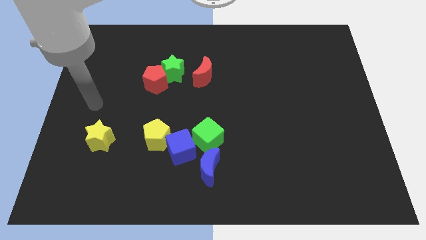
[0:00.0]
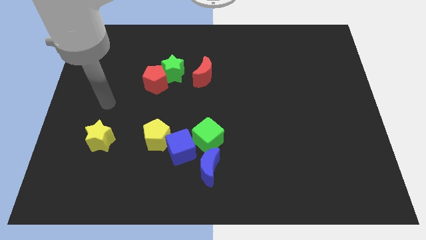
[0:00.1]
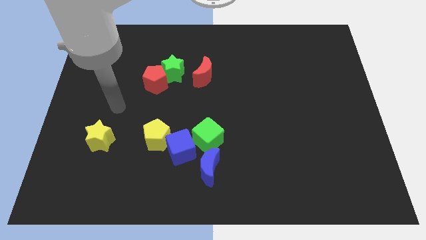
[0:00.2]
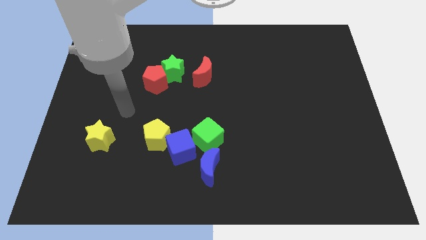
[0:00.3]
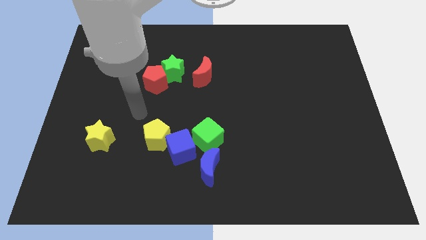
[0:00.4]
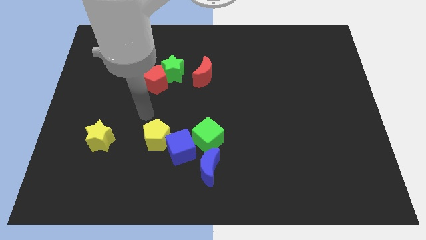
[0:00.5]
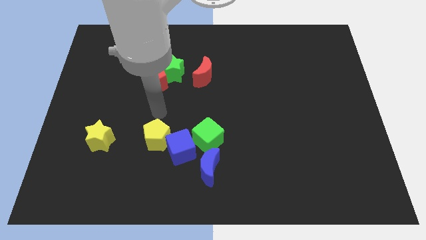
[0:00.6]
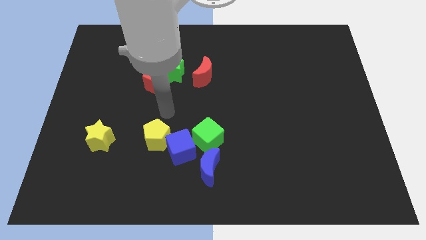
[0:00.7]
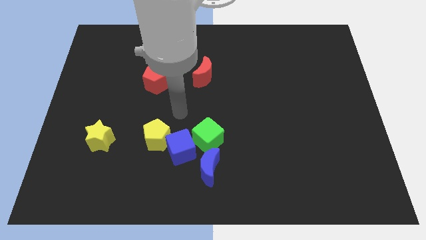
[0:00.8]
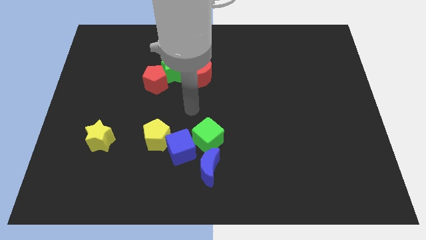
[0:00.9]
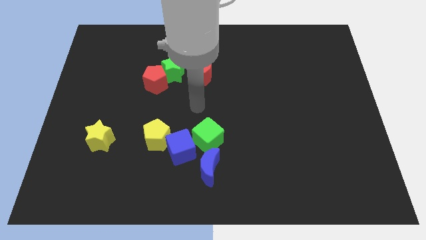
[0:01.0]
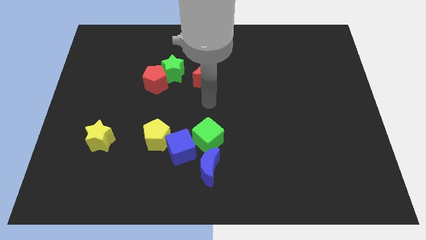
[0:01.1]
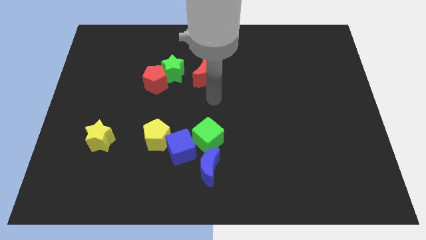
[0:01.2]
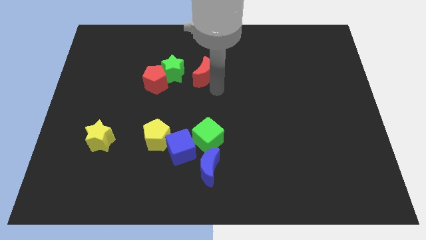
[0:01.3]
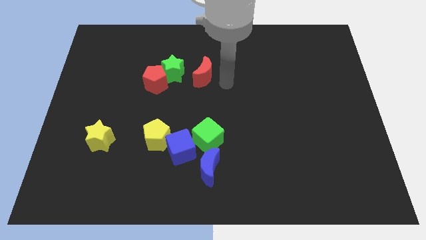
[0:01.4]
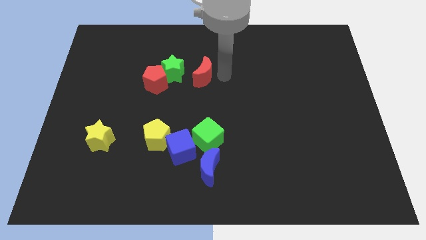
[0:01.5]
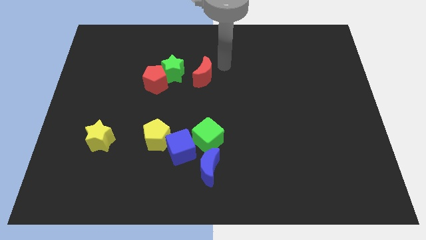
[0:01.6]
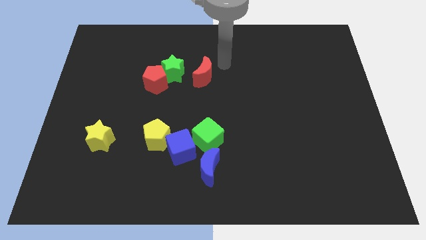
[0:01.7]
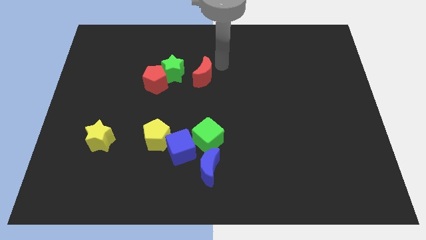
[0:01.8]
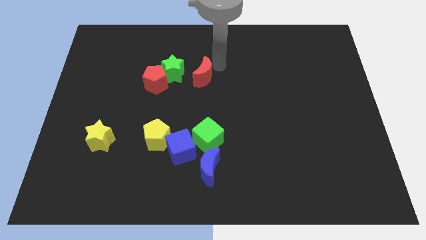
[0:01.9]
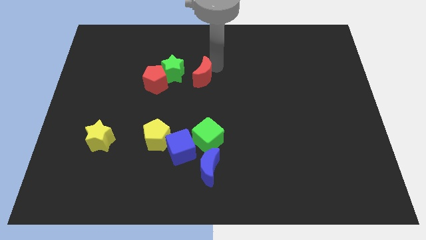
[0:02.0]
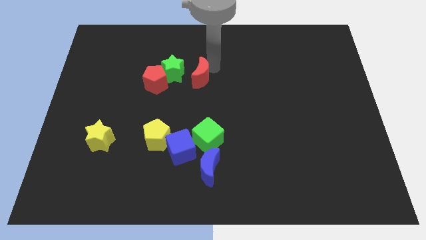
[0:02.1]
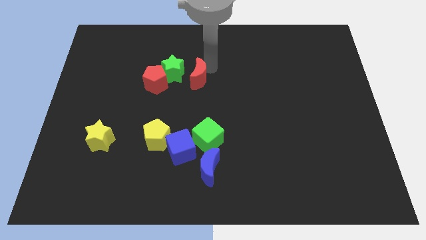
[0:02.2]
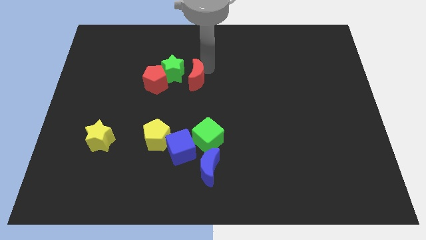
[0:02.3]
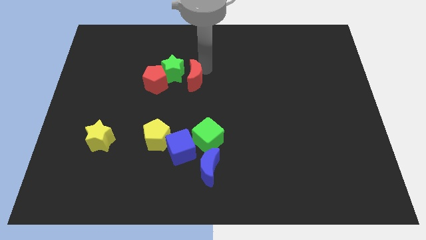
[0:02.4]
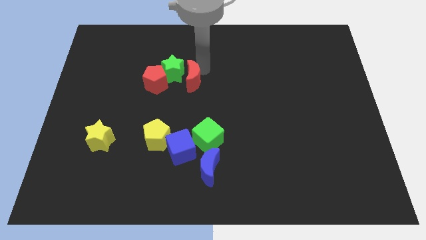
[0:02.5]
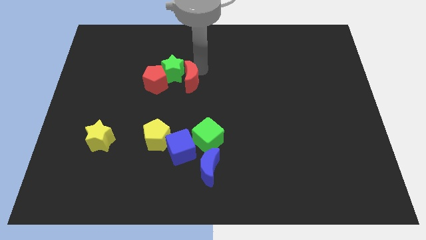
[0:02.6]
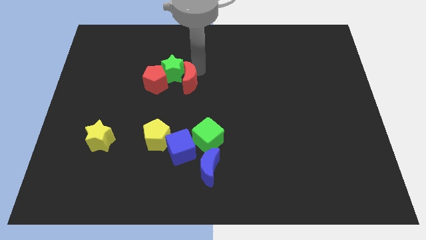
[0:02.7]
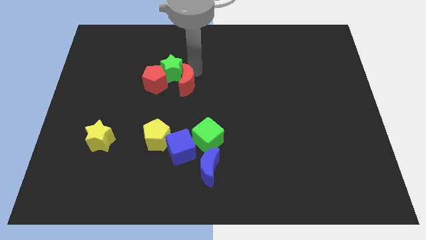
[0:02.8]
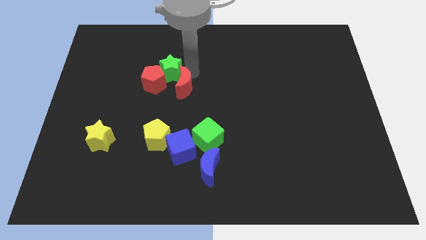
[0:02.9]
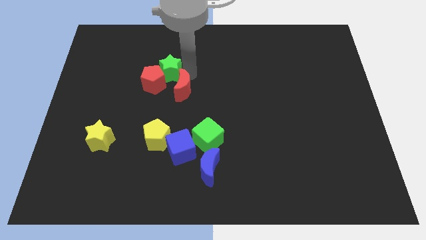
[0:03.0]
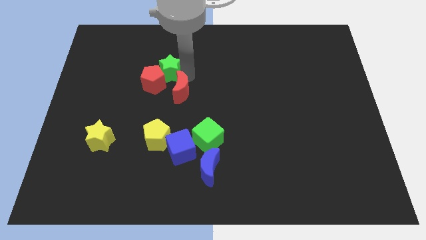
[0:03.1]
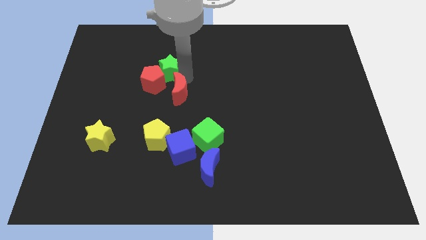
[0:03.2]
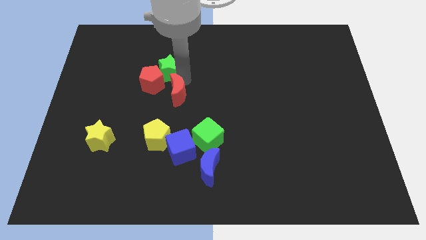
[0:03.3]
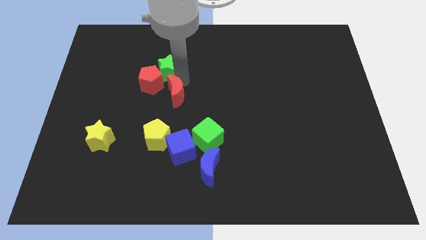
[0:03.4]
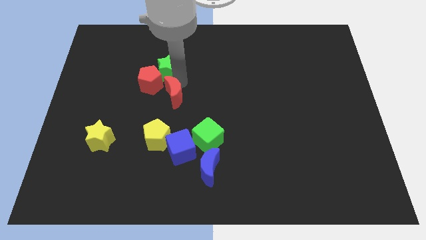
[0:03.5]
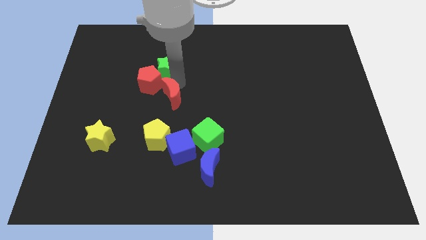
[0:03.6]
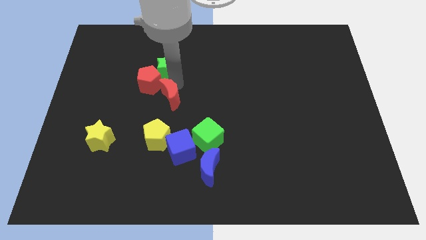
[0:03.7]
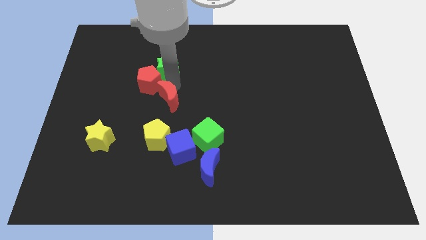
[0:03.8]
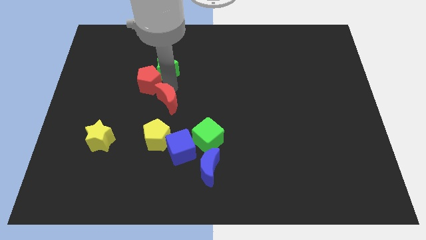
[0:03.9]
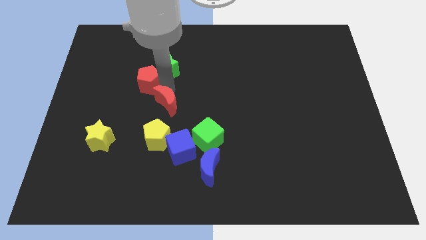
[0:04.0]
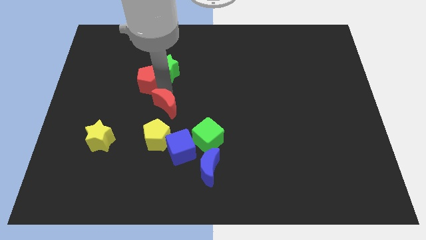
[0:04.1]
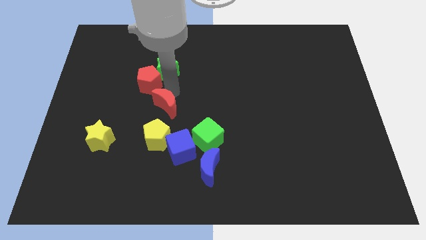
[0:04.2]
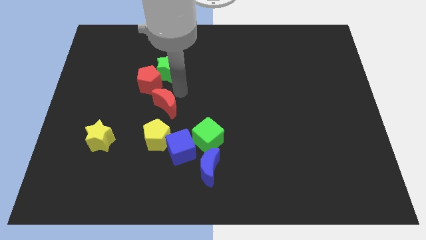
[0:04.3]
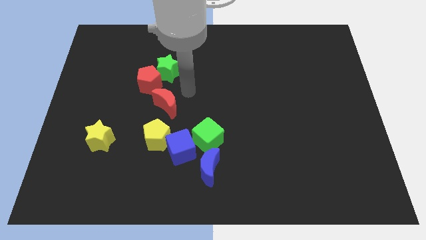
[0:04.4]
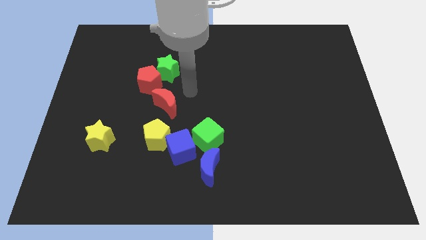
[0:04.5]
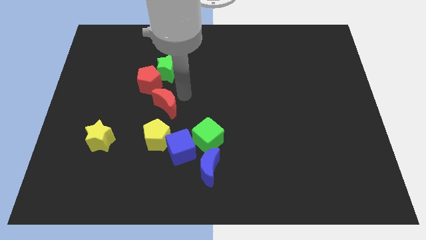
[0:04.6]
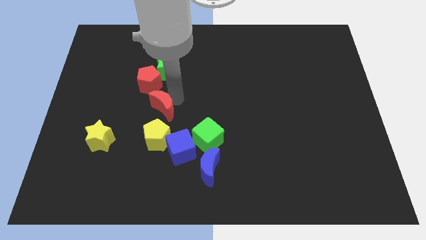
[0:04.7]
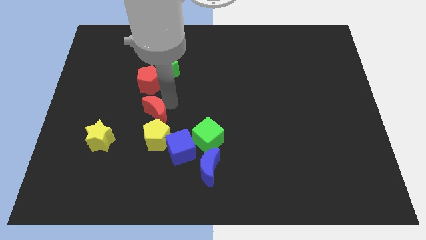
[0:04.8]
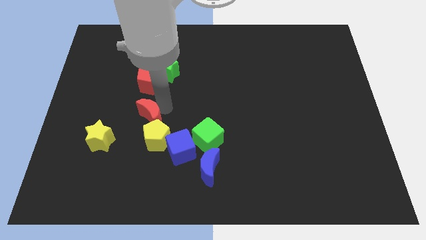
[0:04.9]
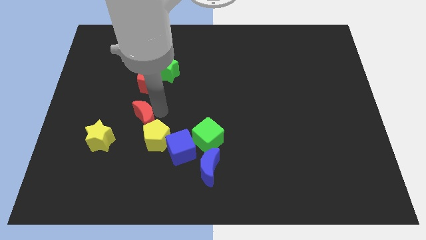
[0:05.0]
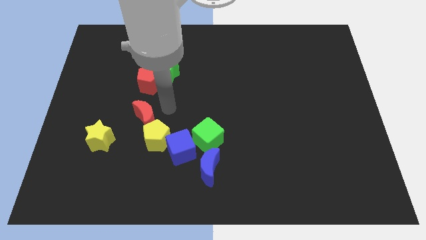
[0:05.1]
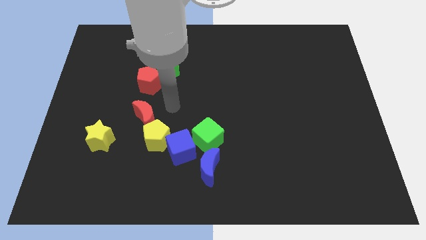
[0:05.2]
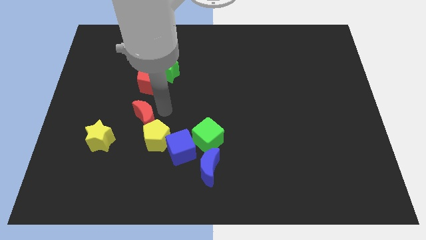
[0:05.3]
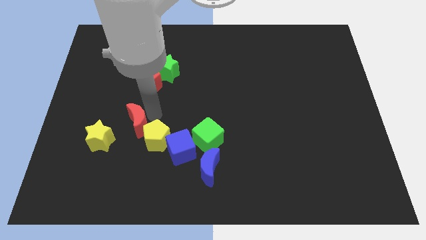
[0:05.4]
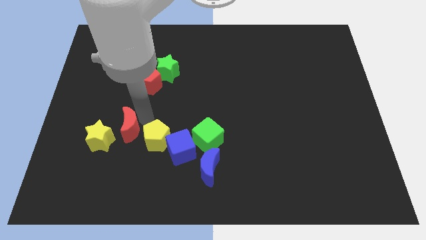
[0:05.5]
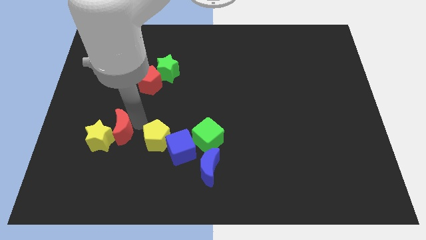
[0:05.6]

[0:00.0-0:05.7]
put the red moon towards the yellow star

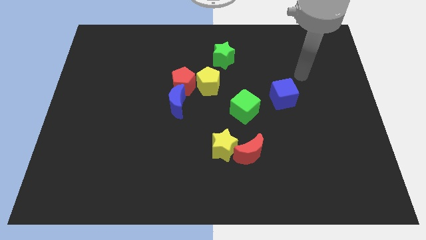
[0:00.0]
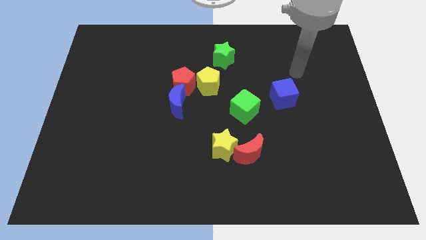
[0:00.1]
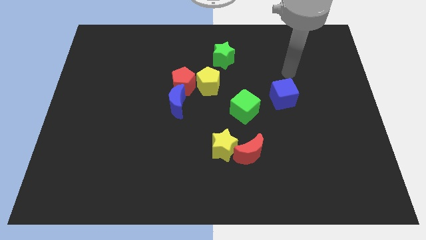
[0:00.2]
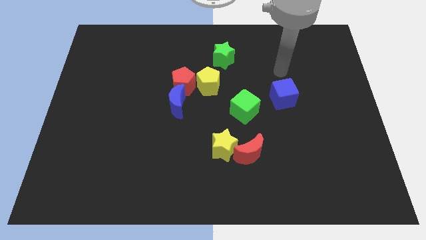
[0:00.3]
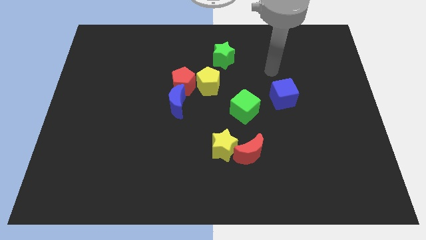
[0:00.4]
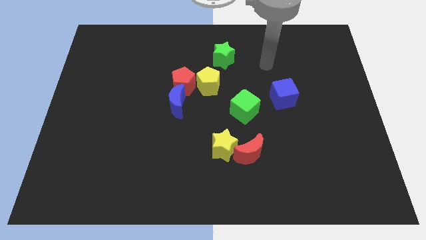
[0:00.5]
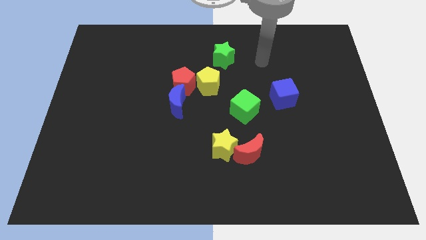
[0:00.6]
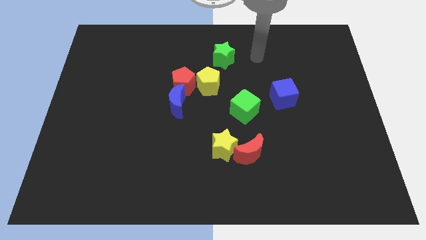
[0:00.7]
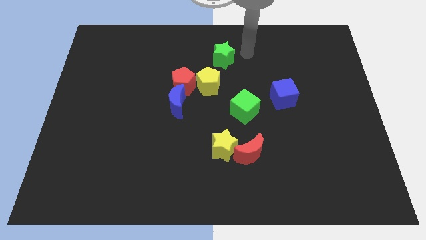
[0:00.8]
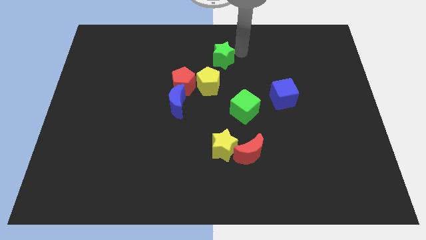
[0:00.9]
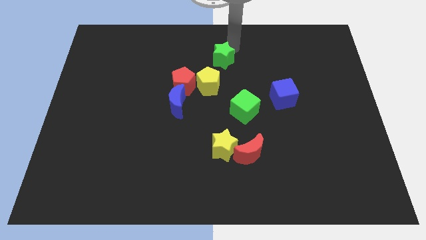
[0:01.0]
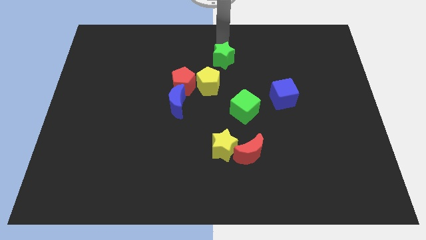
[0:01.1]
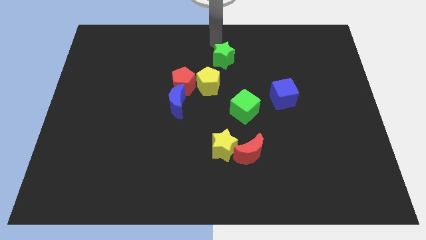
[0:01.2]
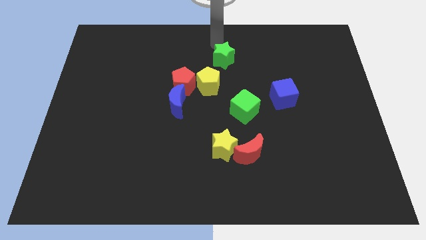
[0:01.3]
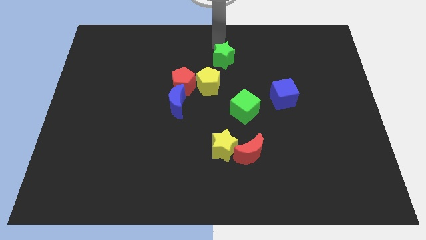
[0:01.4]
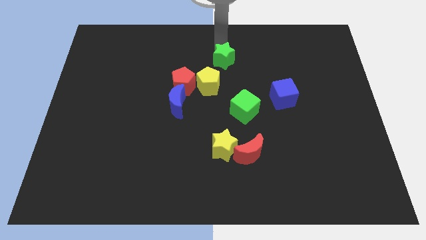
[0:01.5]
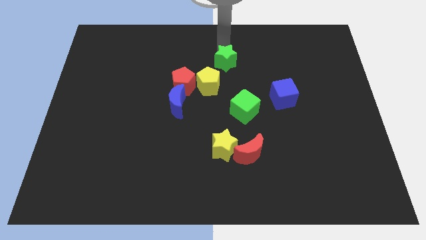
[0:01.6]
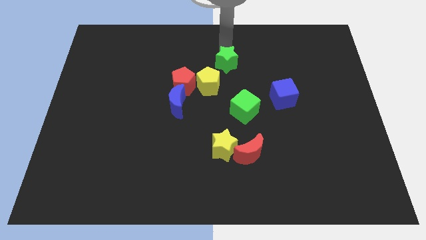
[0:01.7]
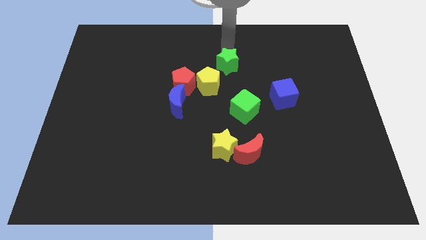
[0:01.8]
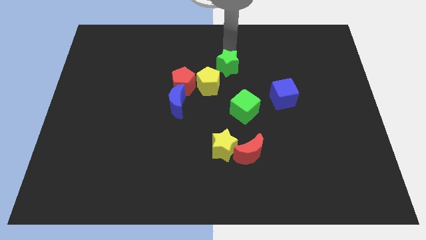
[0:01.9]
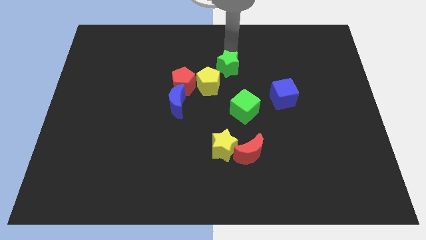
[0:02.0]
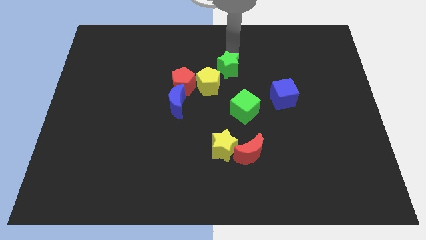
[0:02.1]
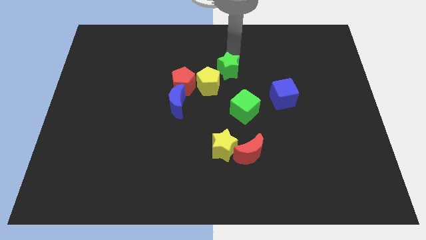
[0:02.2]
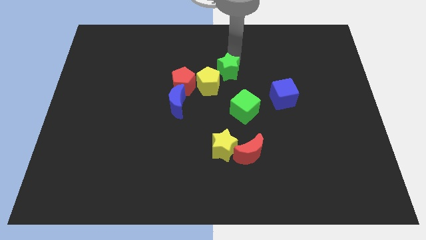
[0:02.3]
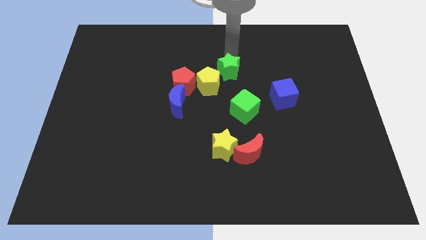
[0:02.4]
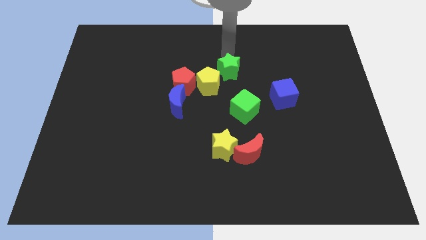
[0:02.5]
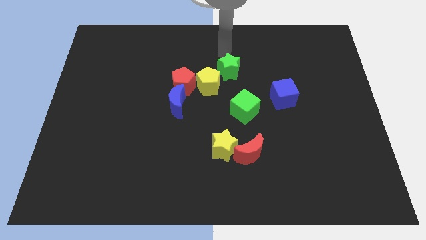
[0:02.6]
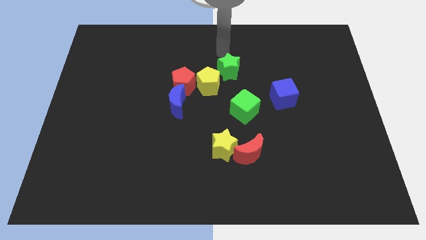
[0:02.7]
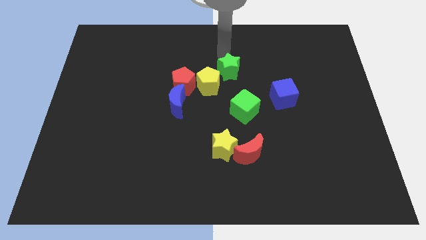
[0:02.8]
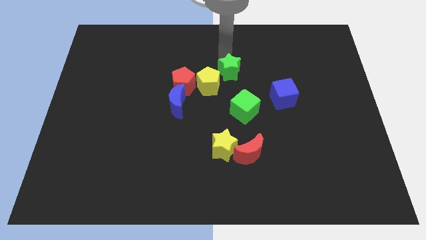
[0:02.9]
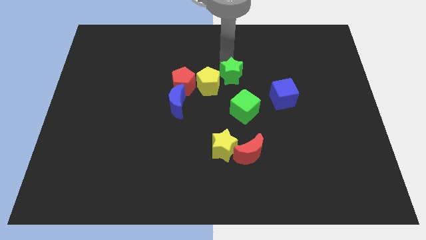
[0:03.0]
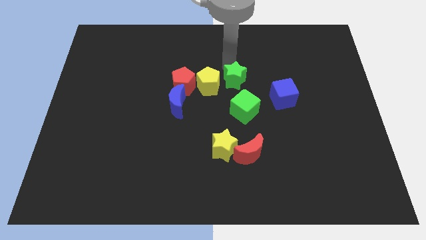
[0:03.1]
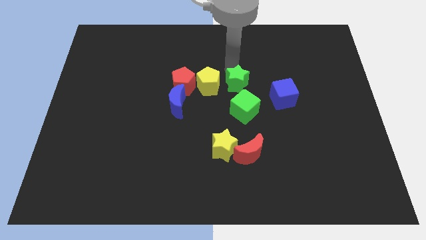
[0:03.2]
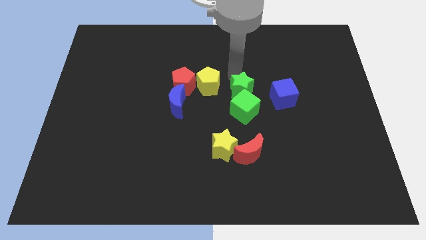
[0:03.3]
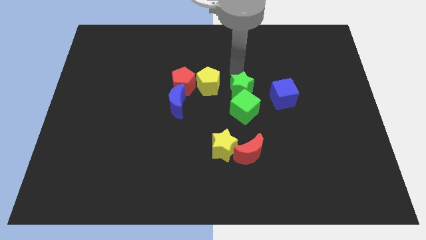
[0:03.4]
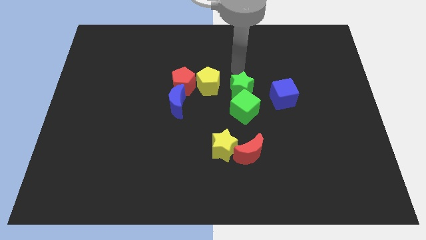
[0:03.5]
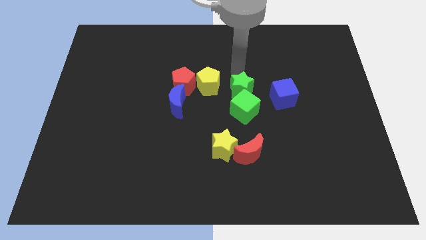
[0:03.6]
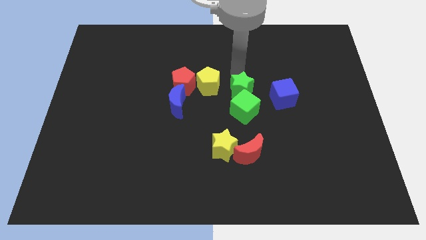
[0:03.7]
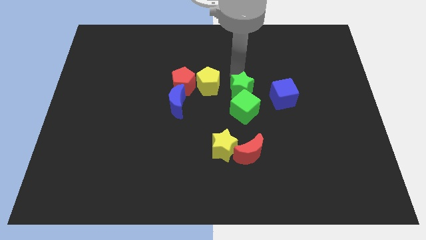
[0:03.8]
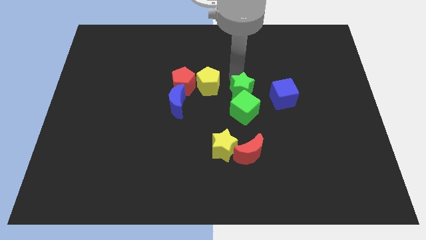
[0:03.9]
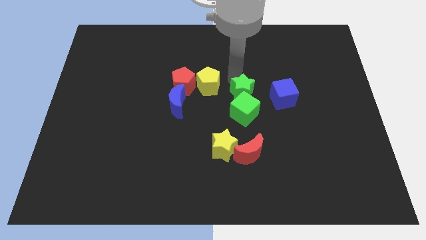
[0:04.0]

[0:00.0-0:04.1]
slide the green star to the green cube
